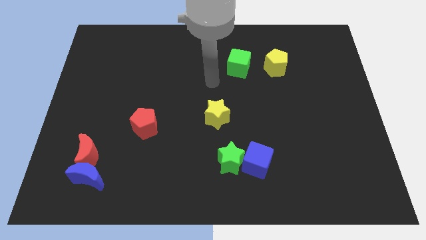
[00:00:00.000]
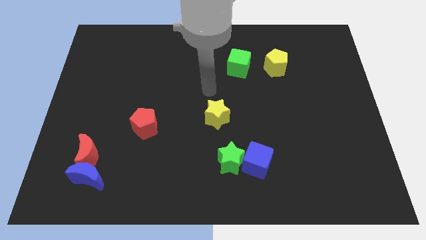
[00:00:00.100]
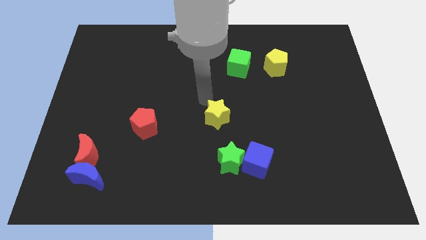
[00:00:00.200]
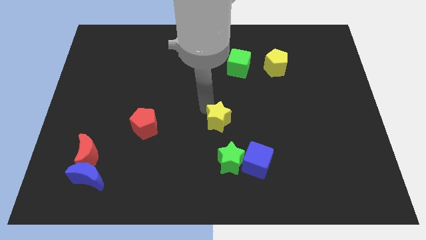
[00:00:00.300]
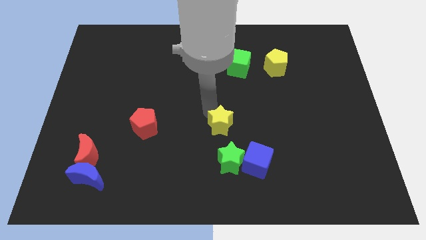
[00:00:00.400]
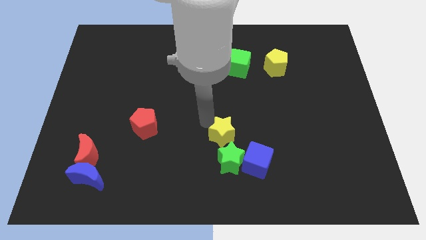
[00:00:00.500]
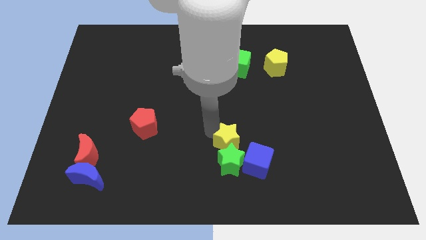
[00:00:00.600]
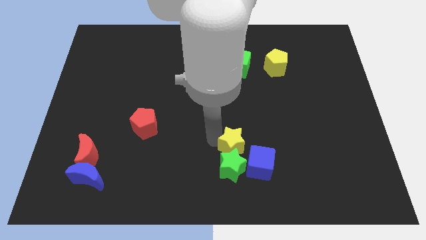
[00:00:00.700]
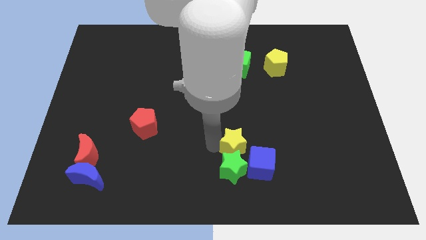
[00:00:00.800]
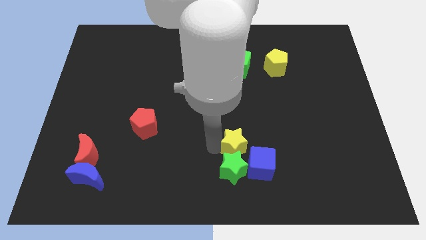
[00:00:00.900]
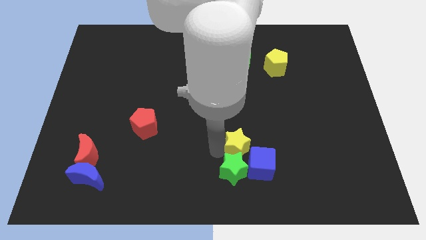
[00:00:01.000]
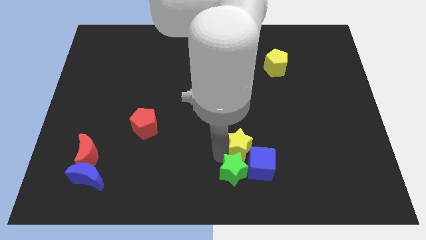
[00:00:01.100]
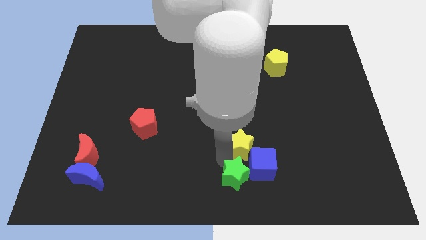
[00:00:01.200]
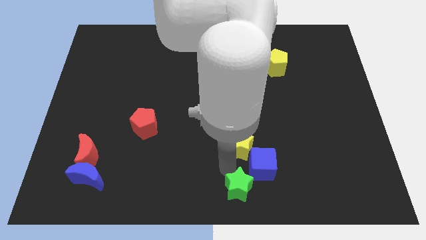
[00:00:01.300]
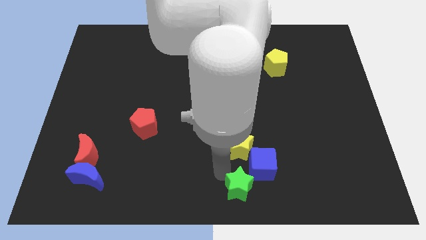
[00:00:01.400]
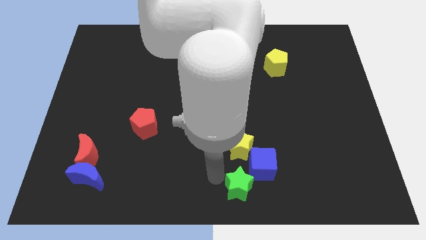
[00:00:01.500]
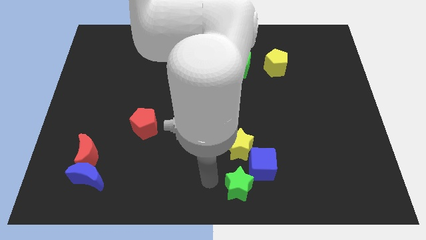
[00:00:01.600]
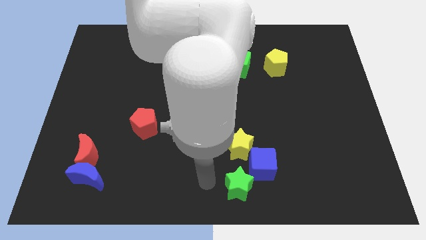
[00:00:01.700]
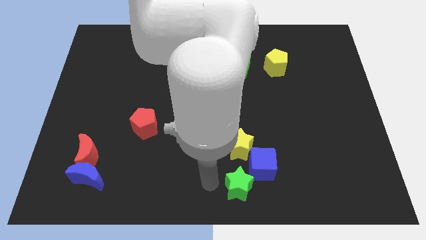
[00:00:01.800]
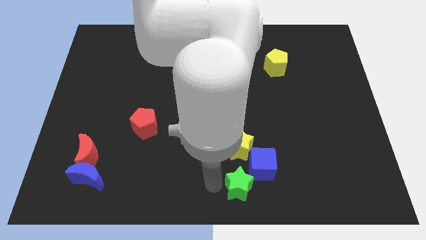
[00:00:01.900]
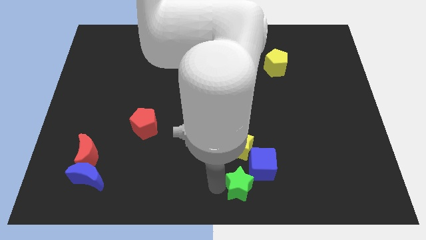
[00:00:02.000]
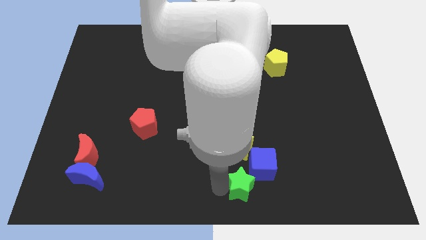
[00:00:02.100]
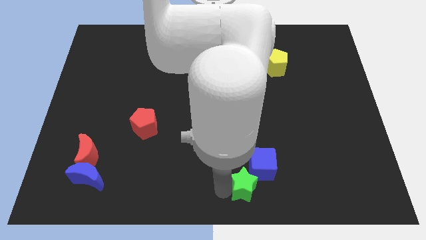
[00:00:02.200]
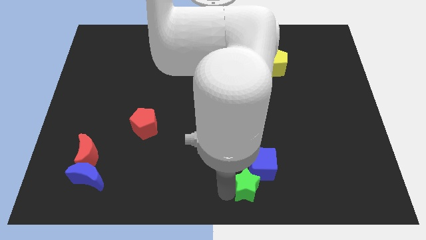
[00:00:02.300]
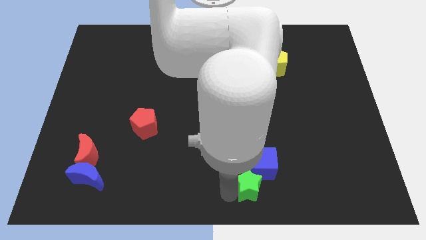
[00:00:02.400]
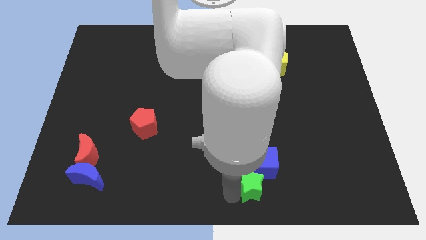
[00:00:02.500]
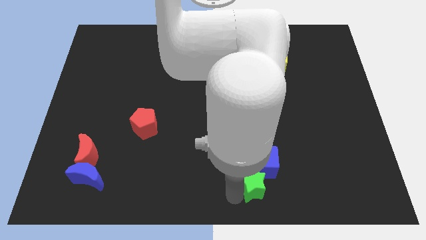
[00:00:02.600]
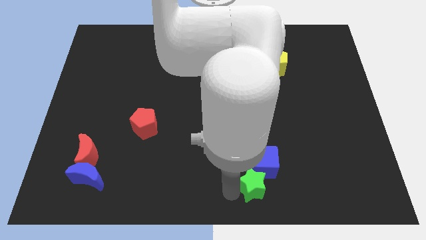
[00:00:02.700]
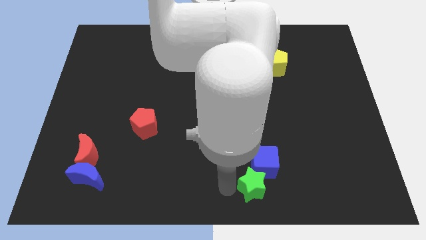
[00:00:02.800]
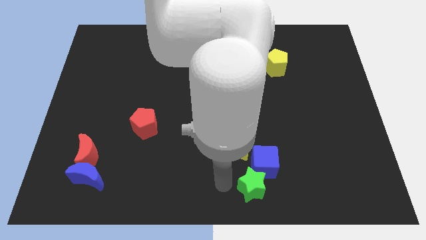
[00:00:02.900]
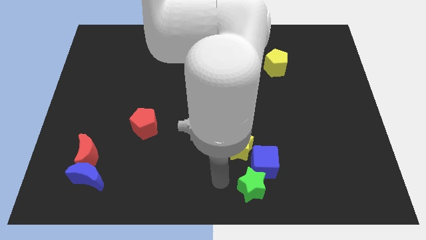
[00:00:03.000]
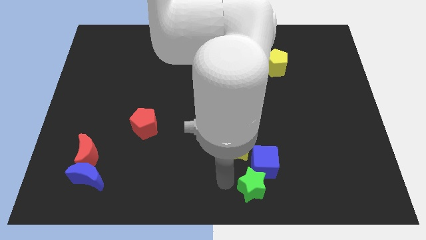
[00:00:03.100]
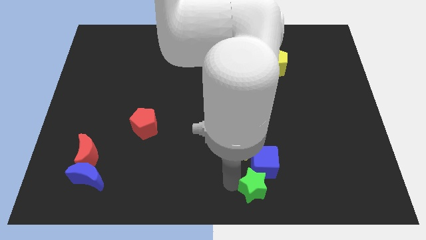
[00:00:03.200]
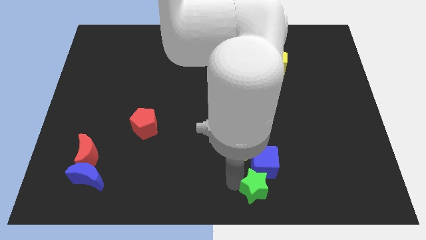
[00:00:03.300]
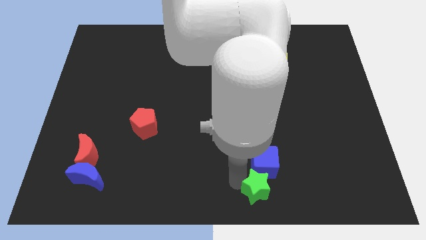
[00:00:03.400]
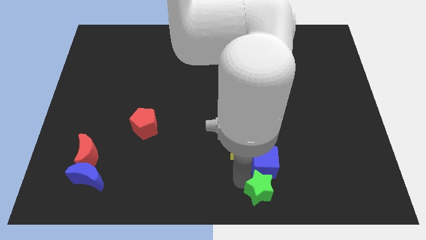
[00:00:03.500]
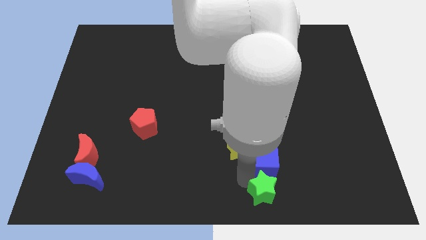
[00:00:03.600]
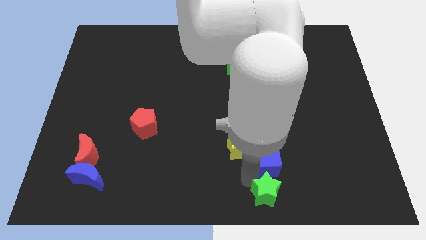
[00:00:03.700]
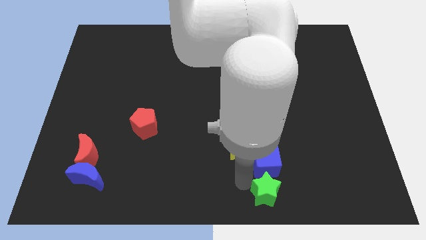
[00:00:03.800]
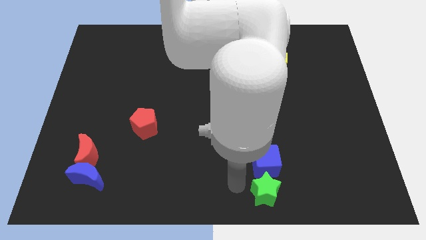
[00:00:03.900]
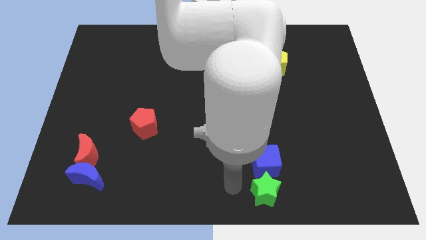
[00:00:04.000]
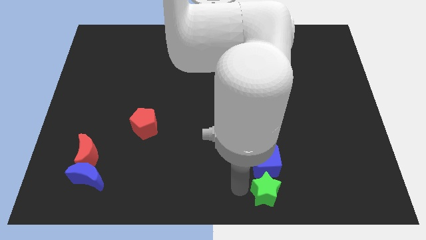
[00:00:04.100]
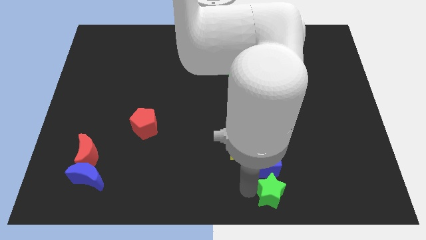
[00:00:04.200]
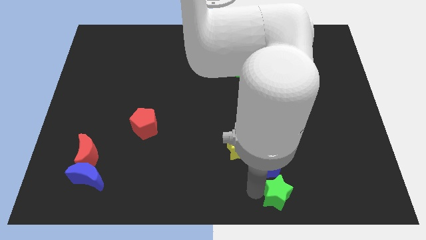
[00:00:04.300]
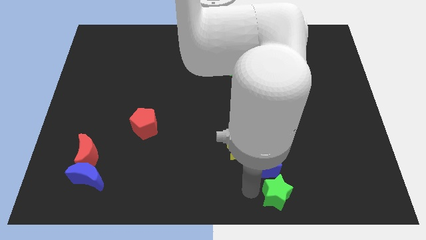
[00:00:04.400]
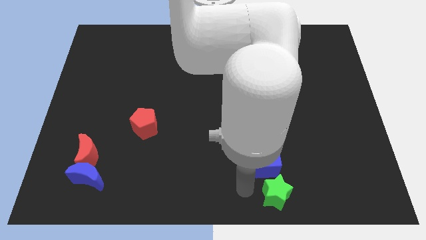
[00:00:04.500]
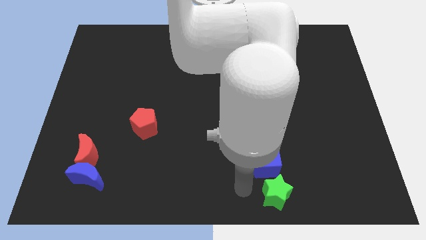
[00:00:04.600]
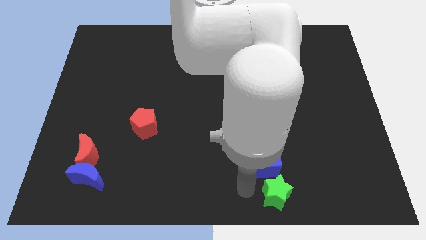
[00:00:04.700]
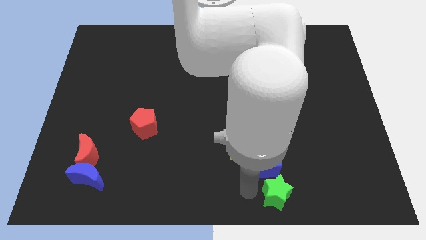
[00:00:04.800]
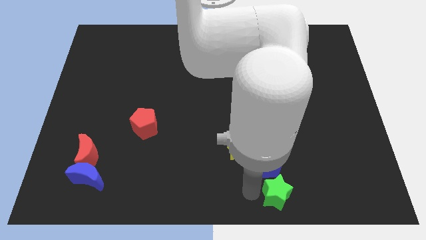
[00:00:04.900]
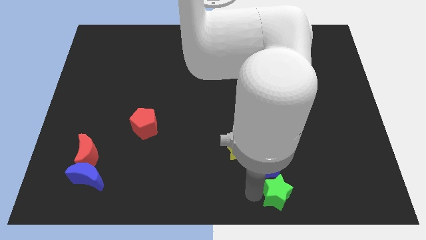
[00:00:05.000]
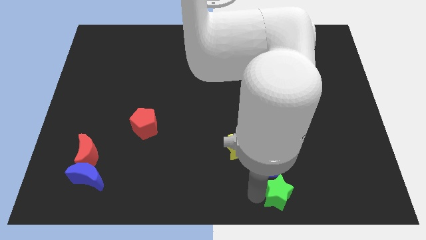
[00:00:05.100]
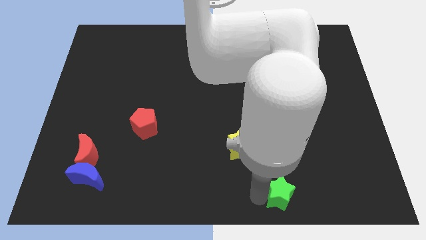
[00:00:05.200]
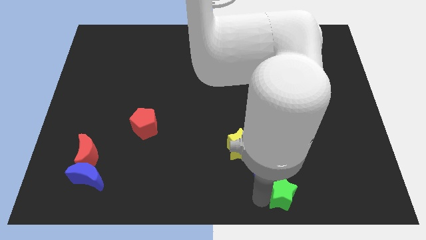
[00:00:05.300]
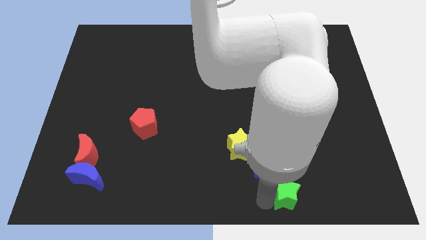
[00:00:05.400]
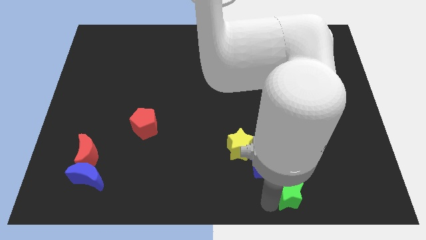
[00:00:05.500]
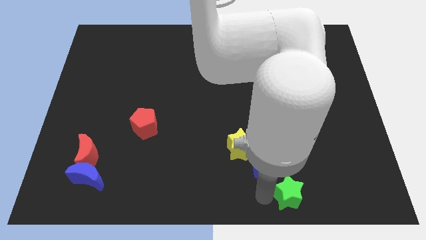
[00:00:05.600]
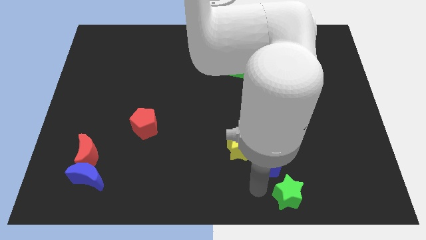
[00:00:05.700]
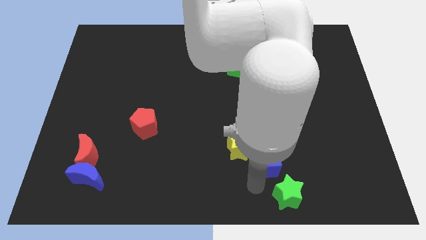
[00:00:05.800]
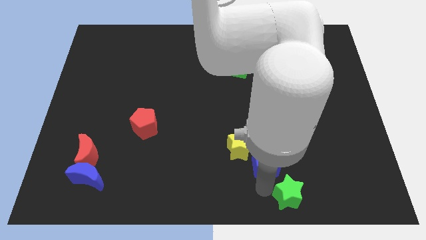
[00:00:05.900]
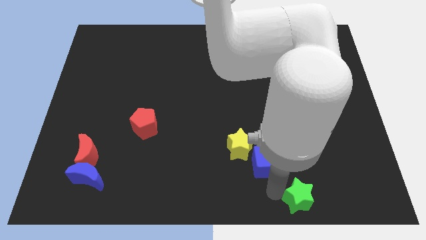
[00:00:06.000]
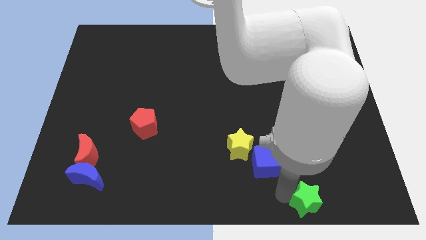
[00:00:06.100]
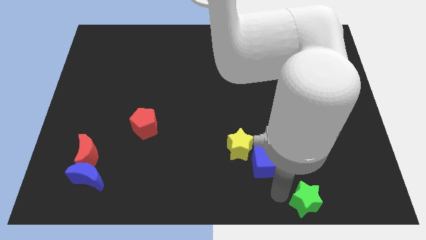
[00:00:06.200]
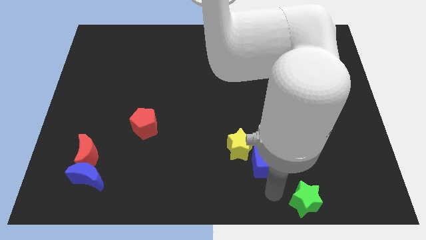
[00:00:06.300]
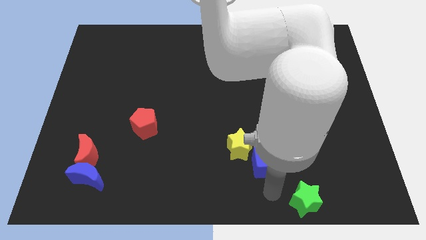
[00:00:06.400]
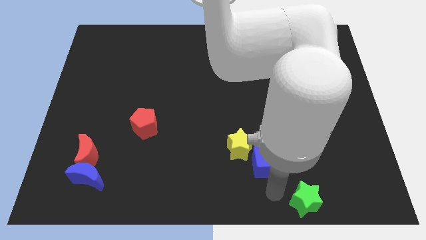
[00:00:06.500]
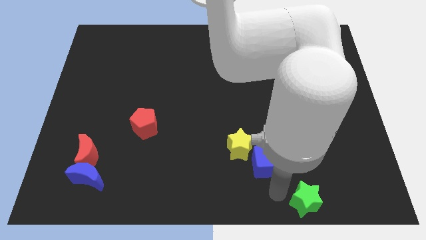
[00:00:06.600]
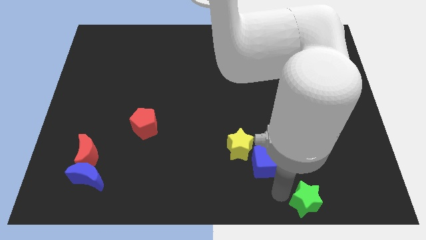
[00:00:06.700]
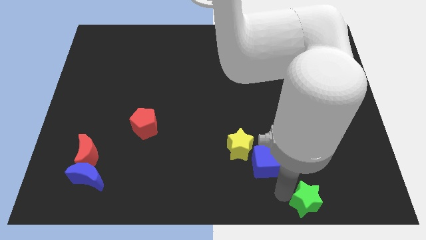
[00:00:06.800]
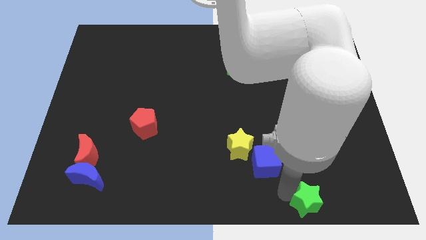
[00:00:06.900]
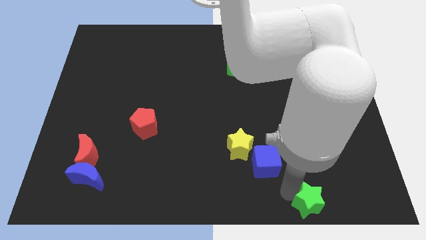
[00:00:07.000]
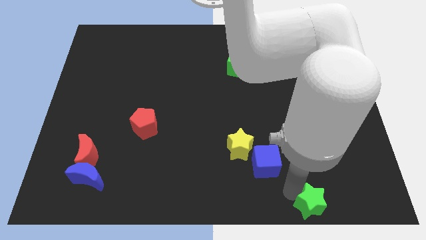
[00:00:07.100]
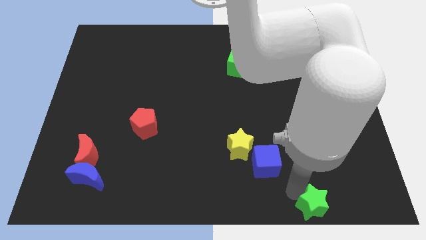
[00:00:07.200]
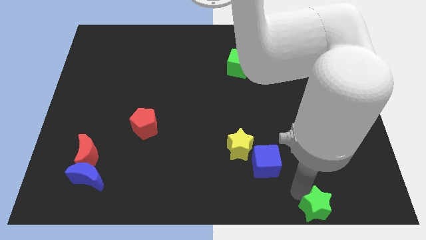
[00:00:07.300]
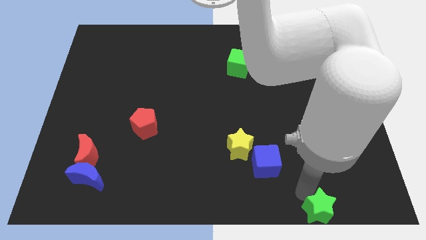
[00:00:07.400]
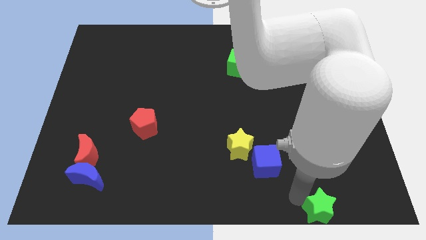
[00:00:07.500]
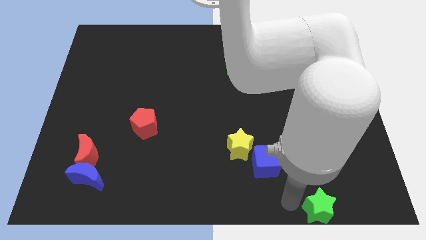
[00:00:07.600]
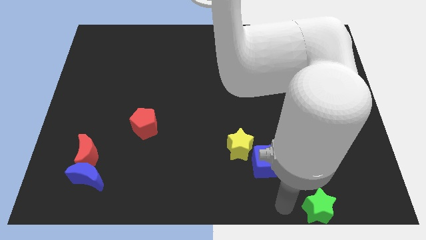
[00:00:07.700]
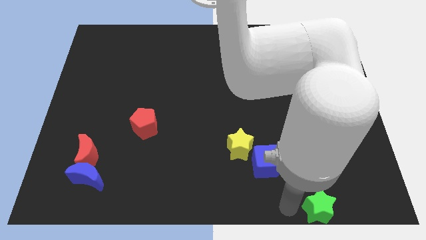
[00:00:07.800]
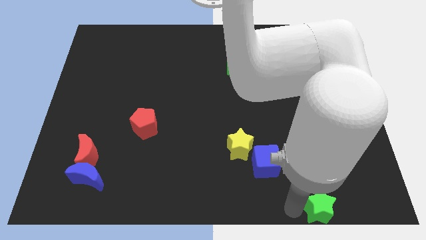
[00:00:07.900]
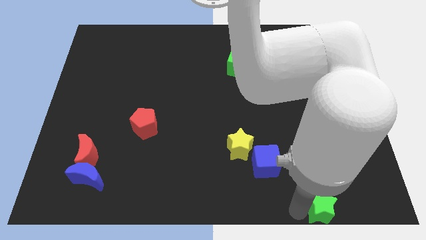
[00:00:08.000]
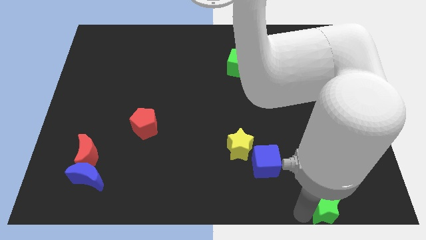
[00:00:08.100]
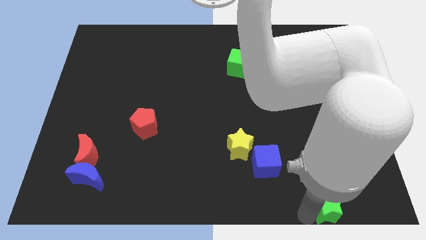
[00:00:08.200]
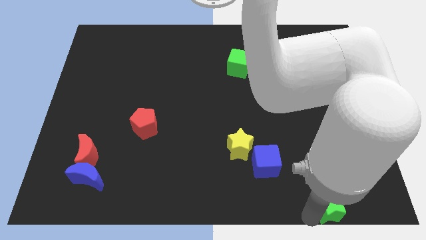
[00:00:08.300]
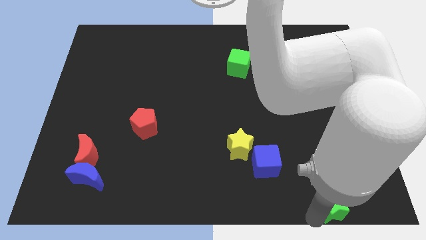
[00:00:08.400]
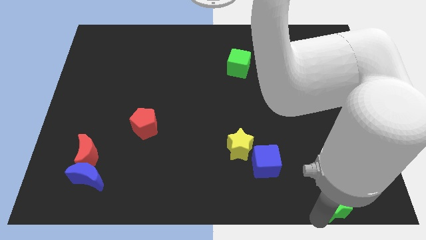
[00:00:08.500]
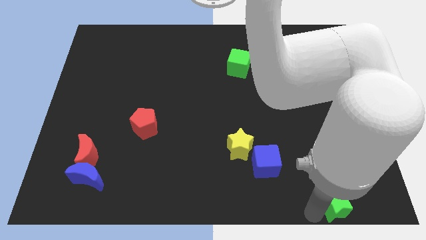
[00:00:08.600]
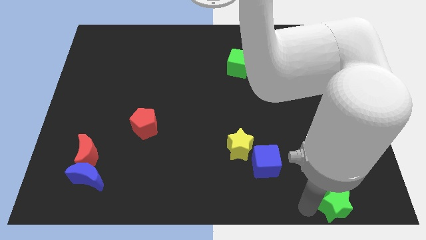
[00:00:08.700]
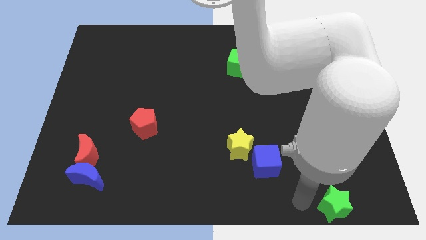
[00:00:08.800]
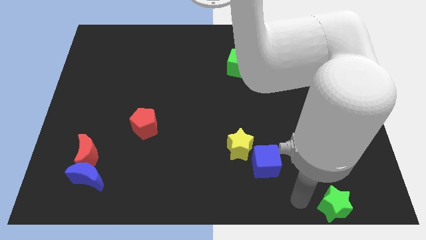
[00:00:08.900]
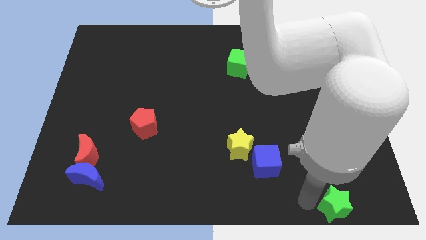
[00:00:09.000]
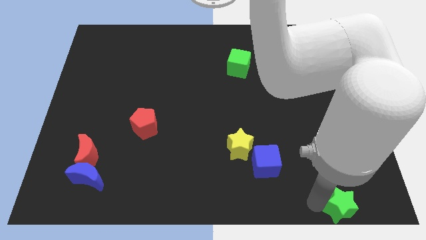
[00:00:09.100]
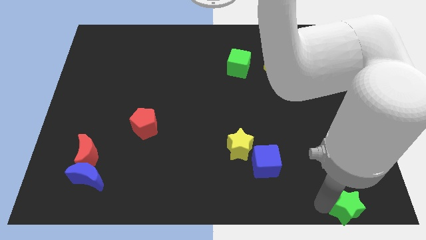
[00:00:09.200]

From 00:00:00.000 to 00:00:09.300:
move the green star to the bottom right of the board
